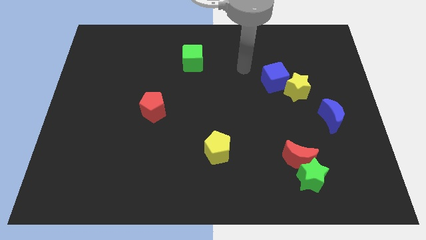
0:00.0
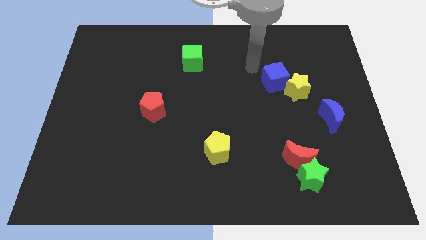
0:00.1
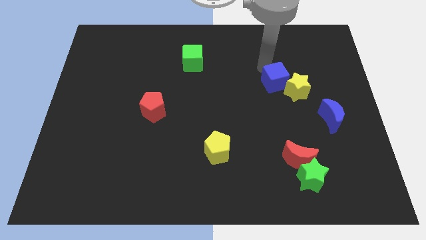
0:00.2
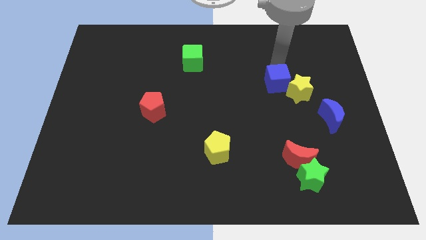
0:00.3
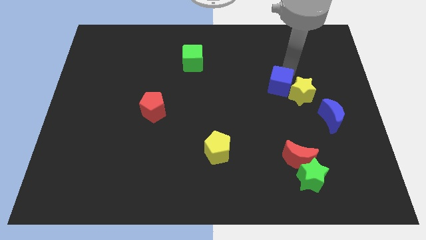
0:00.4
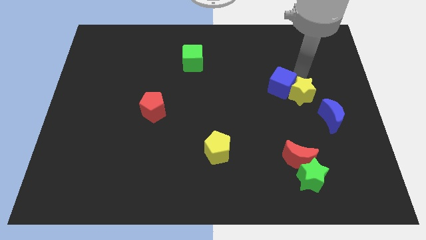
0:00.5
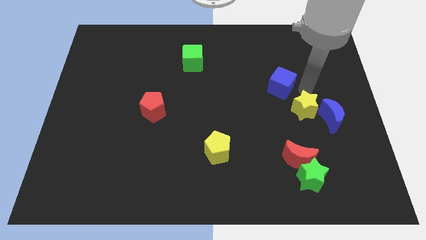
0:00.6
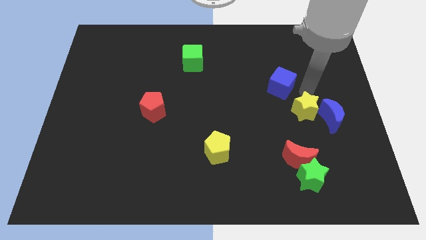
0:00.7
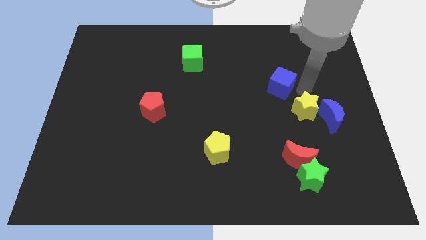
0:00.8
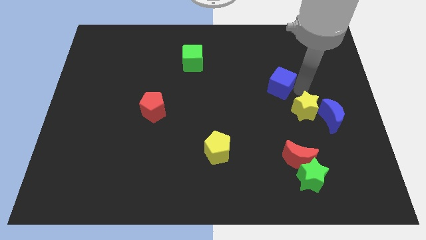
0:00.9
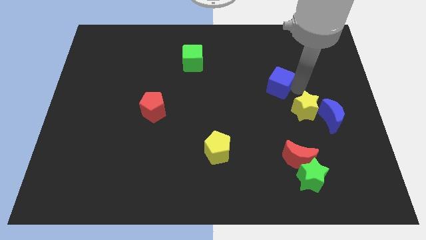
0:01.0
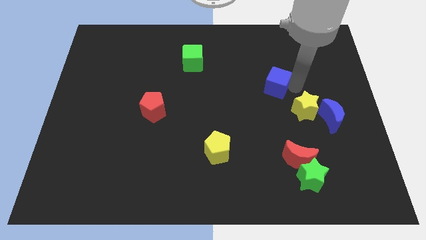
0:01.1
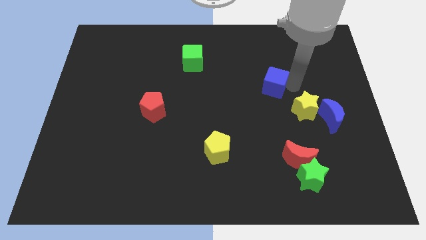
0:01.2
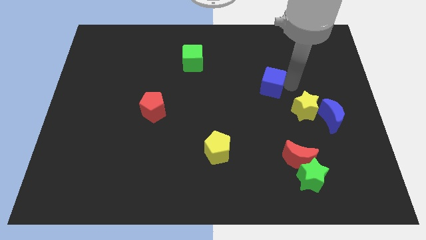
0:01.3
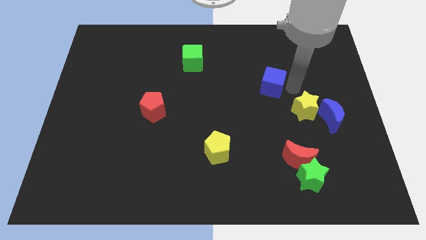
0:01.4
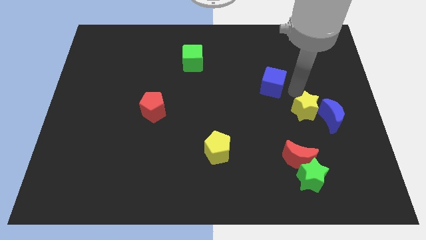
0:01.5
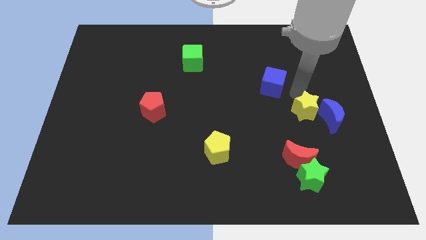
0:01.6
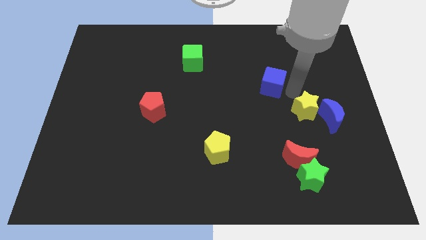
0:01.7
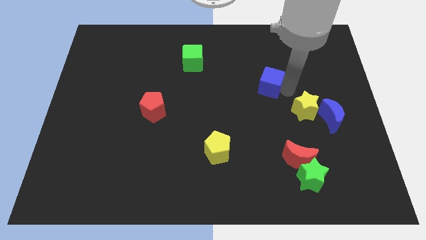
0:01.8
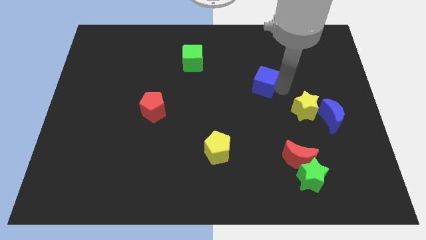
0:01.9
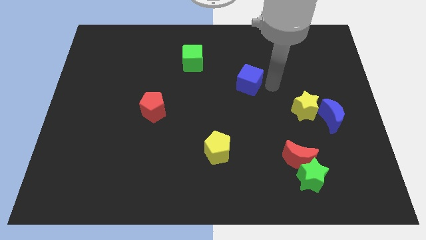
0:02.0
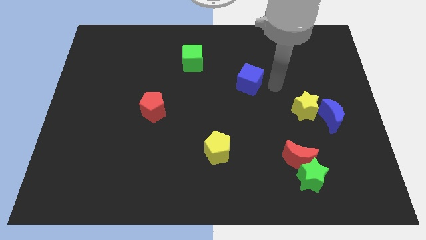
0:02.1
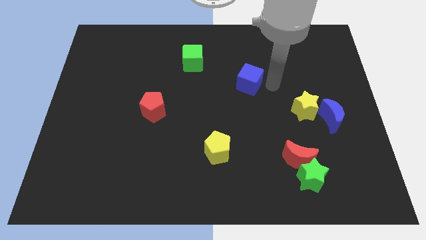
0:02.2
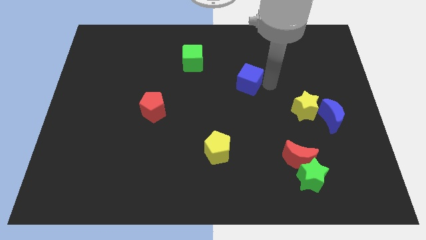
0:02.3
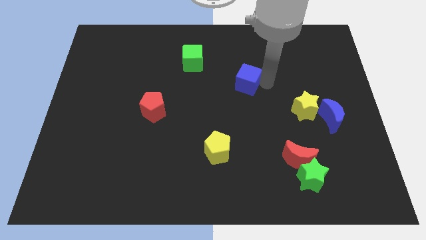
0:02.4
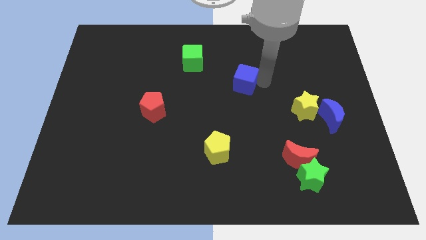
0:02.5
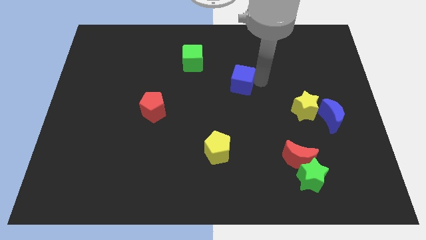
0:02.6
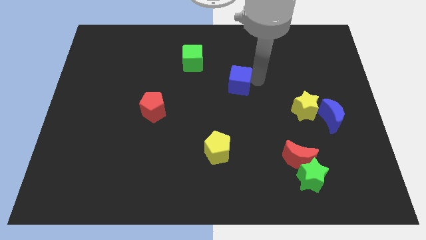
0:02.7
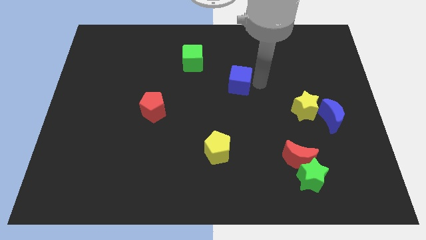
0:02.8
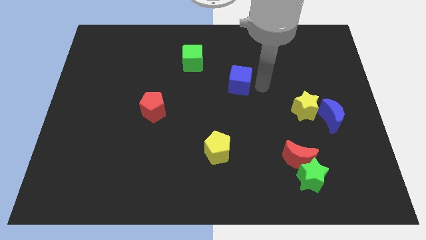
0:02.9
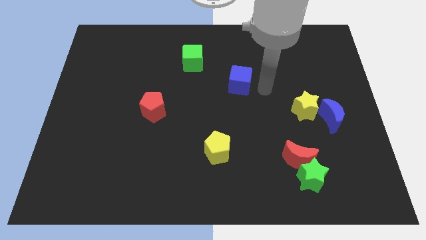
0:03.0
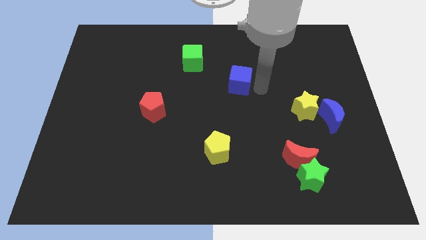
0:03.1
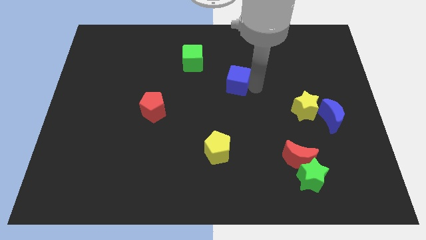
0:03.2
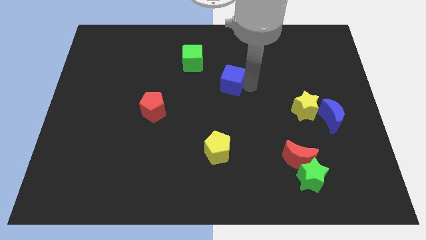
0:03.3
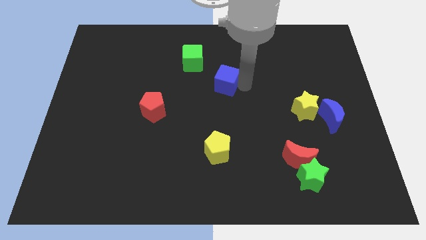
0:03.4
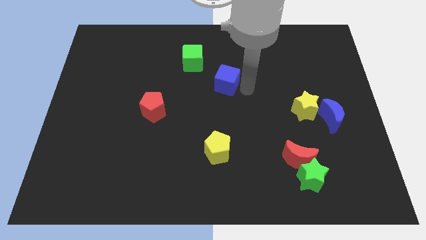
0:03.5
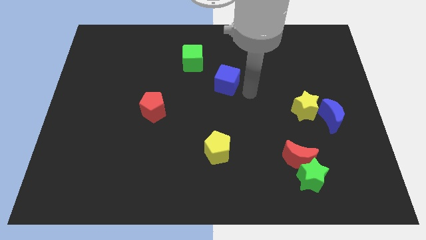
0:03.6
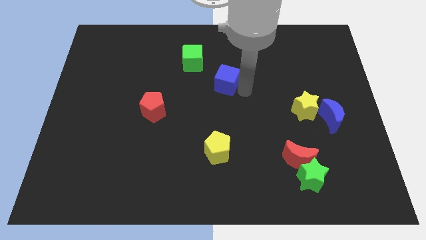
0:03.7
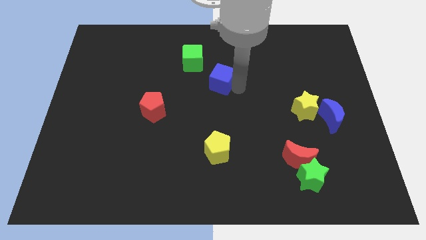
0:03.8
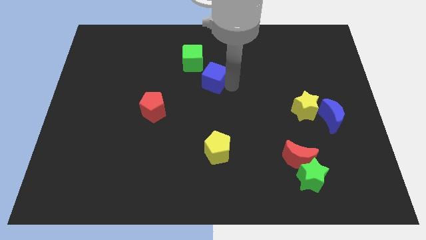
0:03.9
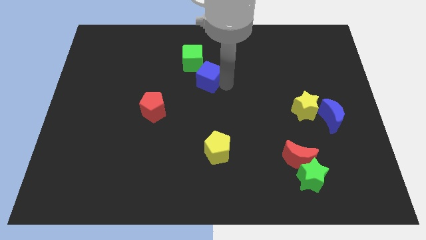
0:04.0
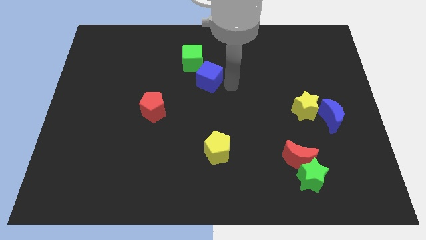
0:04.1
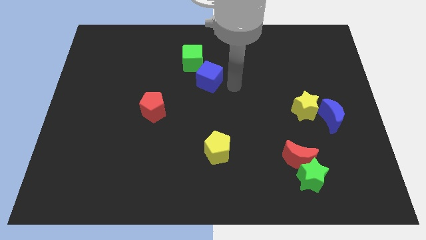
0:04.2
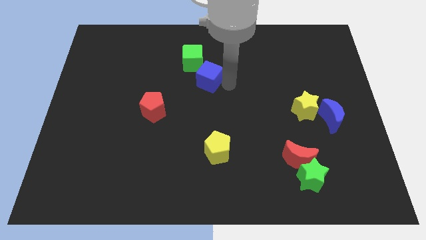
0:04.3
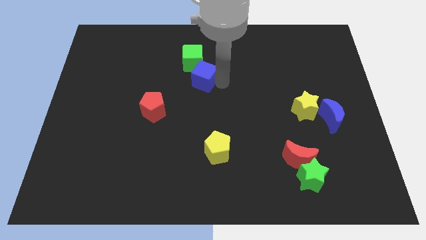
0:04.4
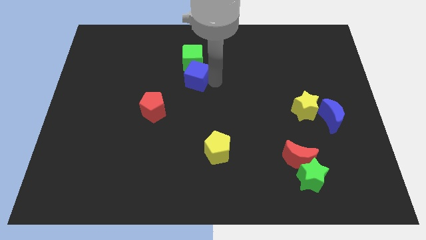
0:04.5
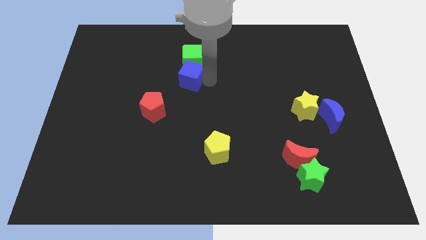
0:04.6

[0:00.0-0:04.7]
move the blue cube to the left

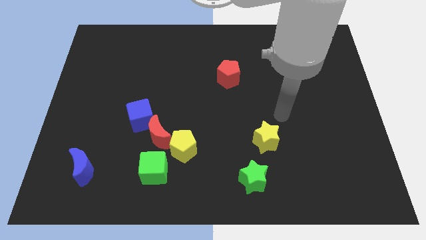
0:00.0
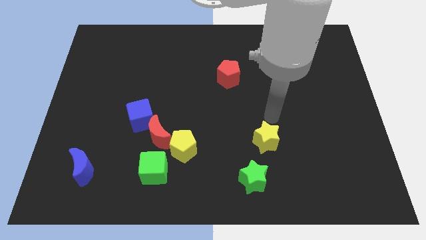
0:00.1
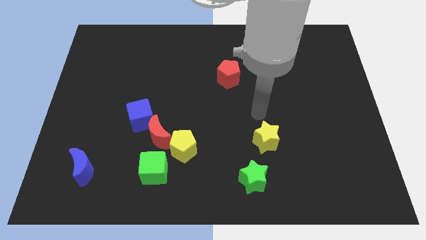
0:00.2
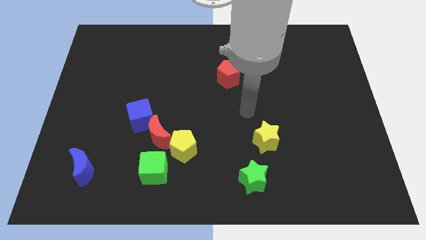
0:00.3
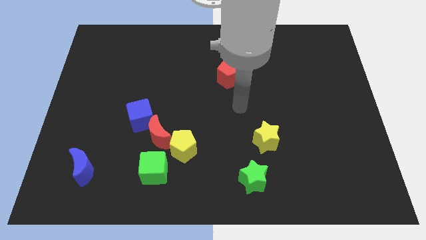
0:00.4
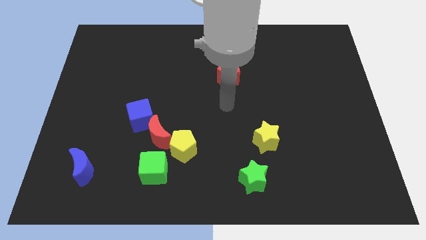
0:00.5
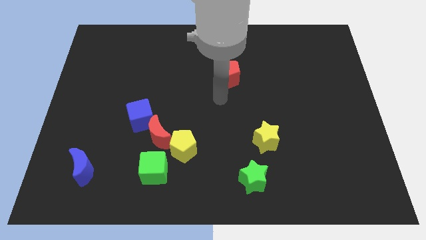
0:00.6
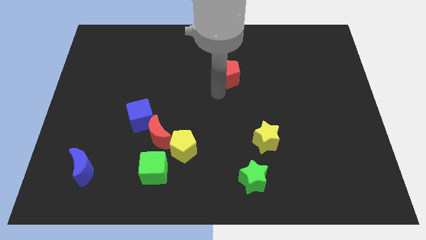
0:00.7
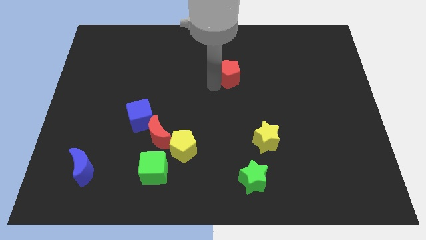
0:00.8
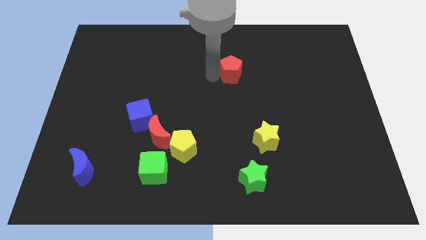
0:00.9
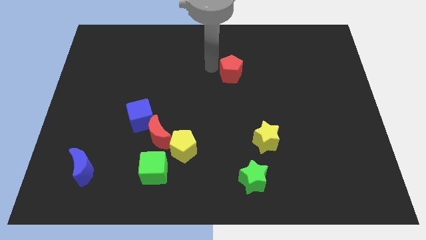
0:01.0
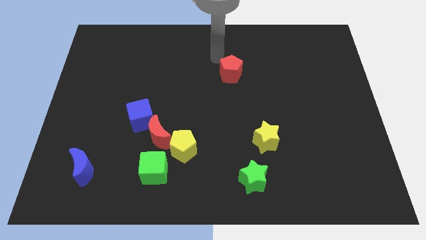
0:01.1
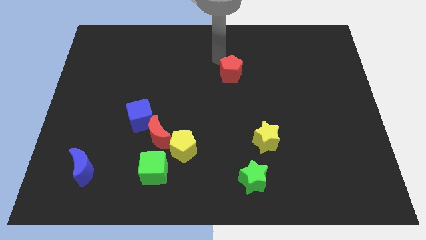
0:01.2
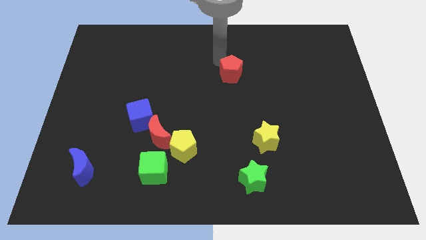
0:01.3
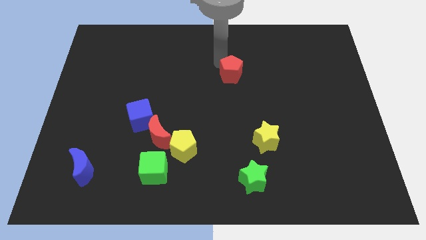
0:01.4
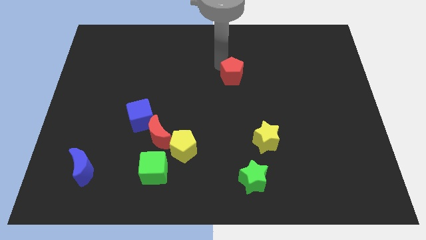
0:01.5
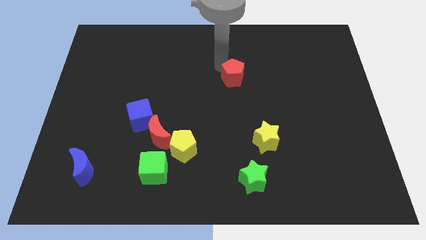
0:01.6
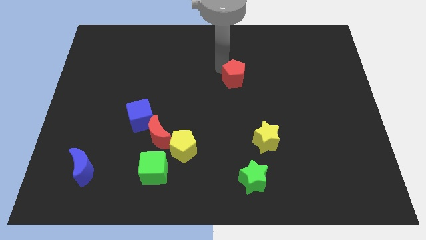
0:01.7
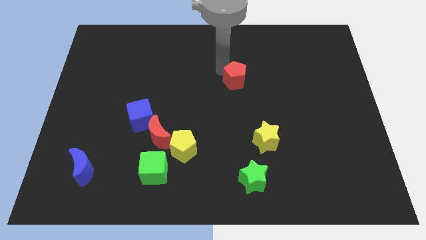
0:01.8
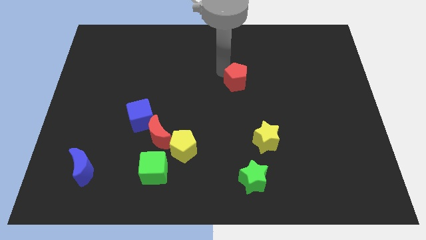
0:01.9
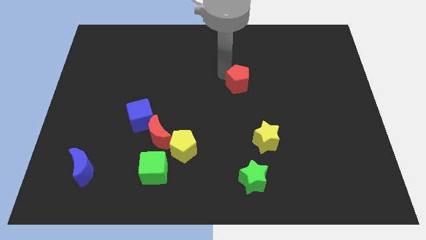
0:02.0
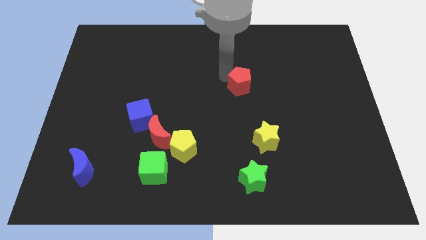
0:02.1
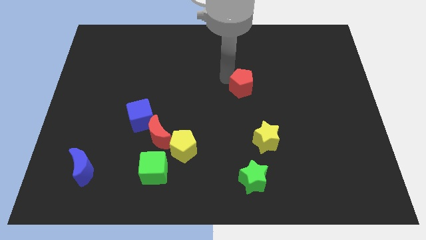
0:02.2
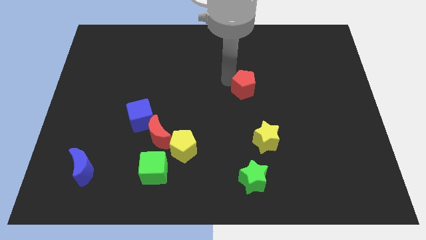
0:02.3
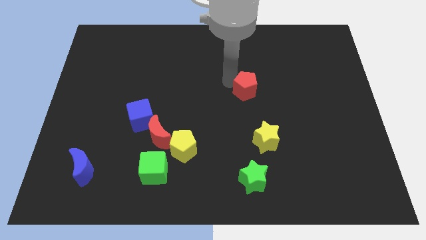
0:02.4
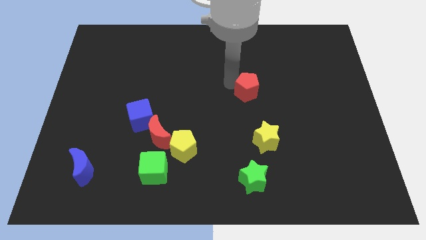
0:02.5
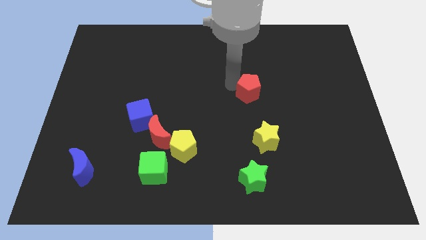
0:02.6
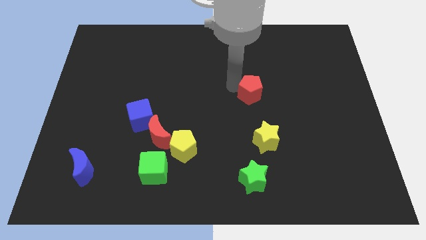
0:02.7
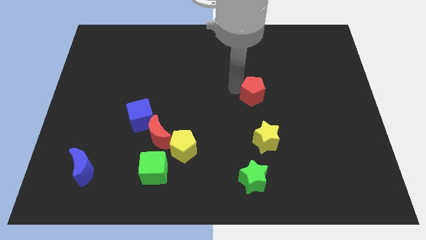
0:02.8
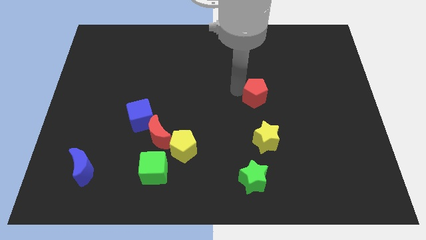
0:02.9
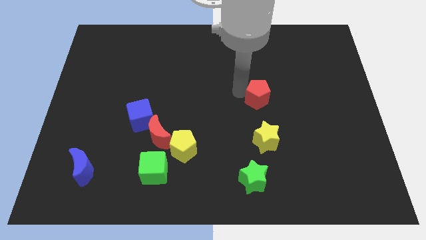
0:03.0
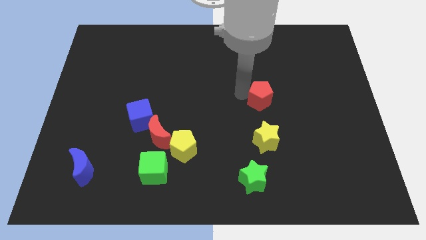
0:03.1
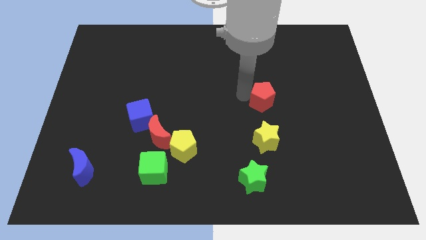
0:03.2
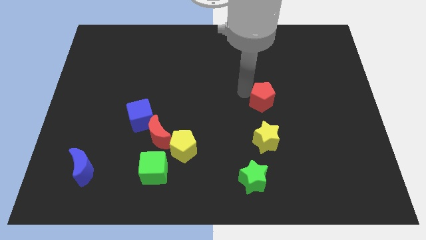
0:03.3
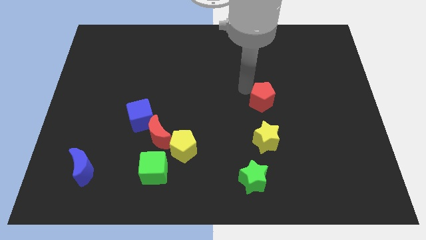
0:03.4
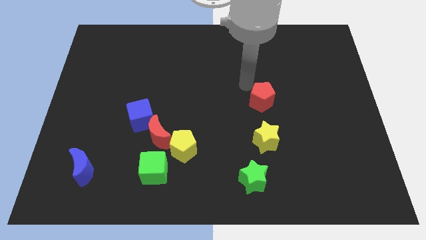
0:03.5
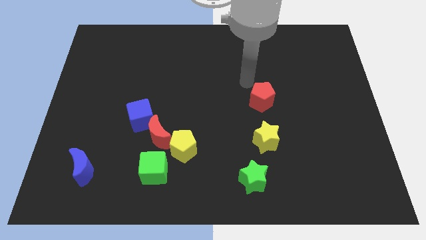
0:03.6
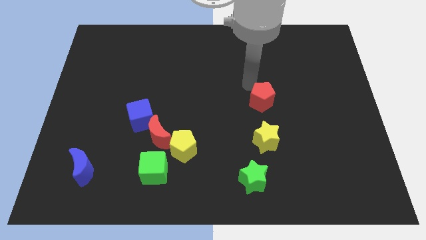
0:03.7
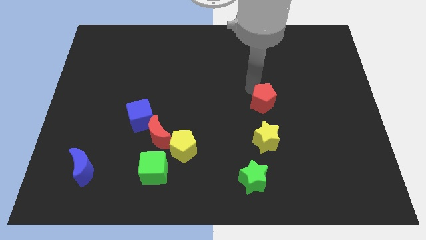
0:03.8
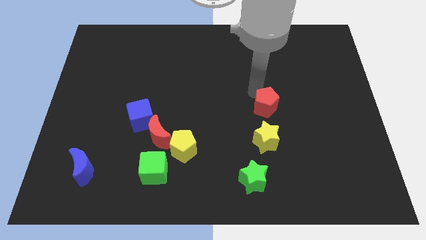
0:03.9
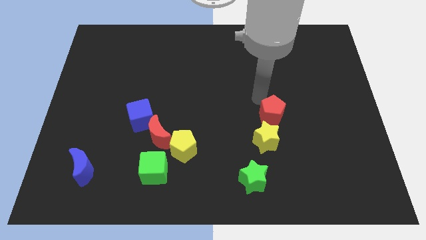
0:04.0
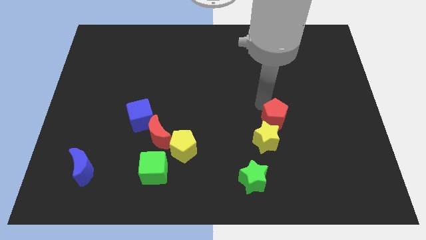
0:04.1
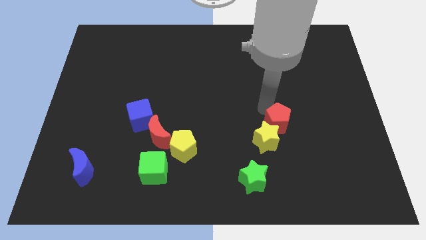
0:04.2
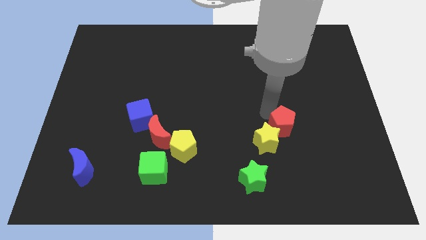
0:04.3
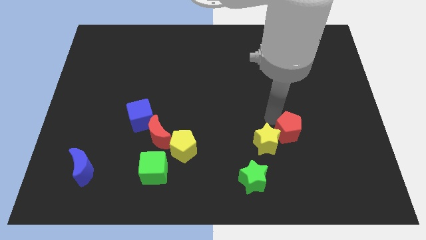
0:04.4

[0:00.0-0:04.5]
slide the red pentagon downwards and then right
